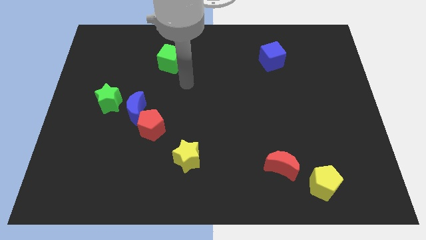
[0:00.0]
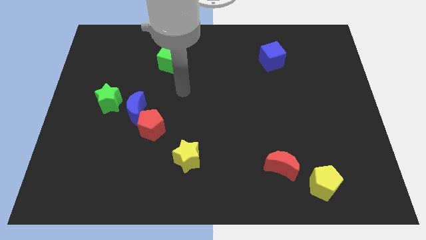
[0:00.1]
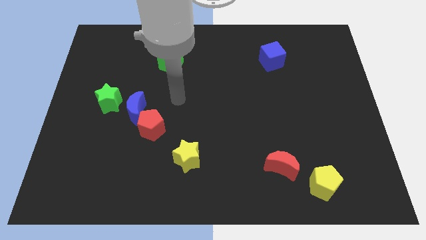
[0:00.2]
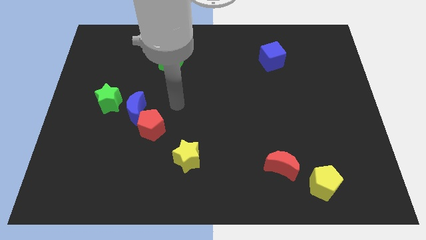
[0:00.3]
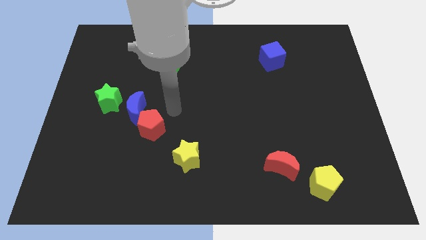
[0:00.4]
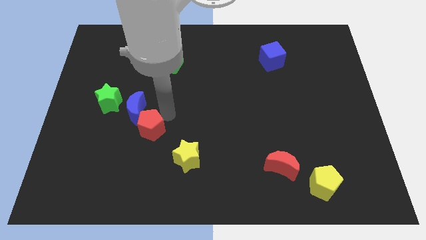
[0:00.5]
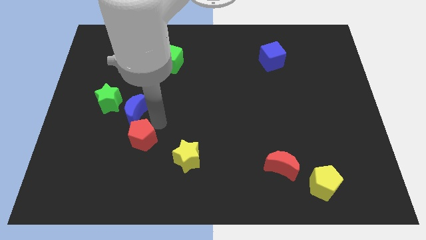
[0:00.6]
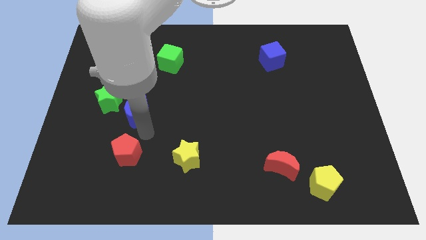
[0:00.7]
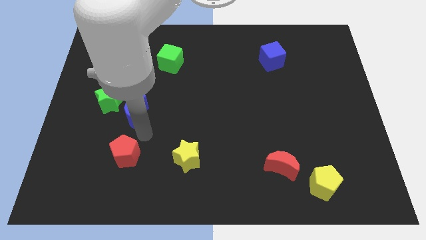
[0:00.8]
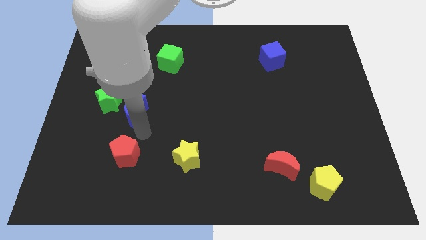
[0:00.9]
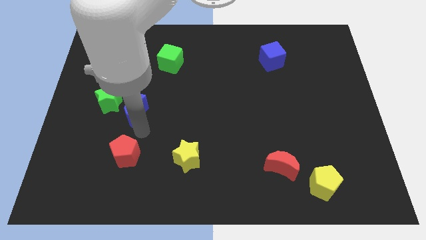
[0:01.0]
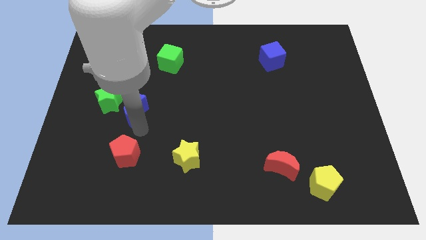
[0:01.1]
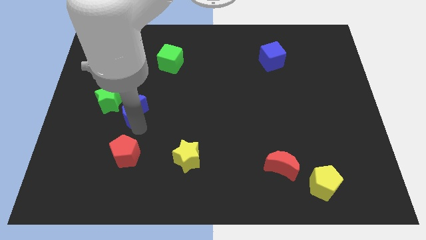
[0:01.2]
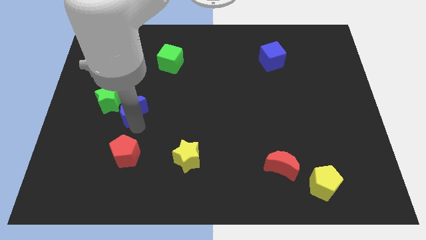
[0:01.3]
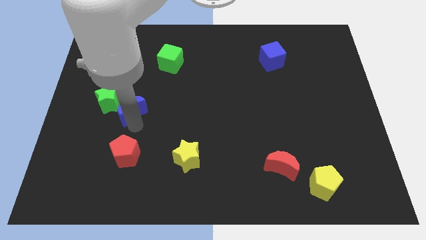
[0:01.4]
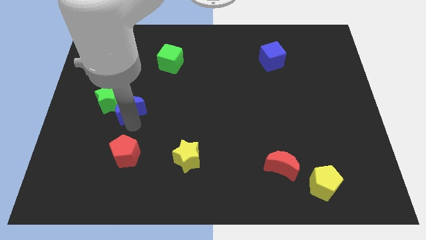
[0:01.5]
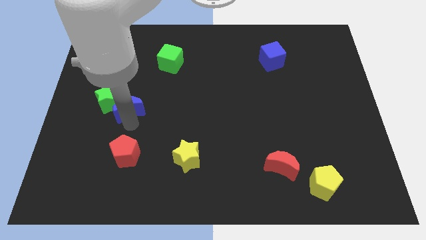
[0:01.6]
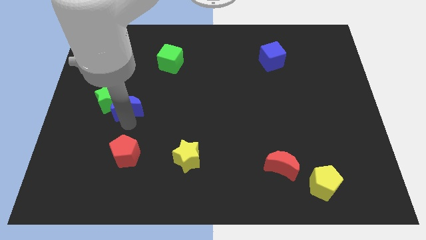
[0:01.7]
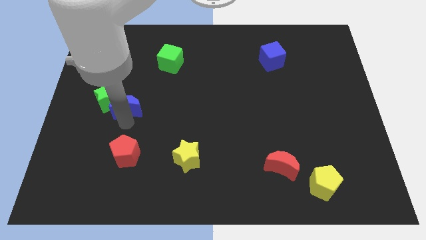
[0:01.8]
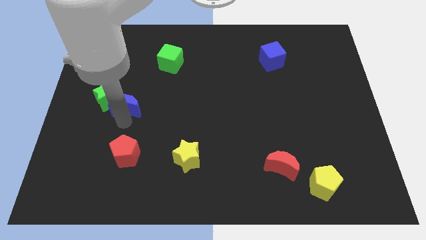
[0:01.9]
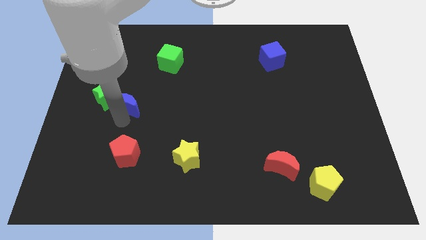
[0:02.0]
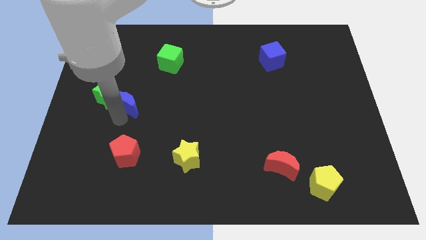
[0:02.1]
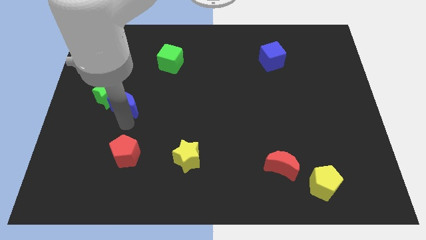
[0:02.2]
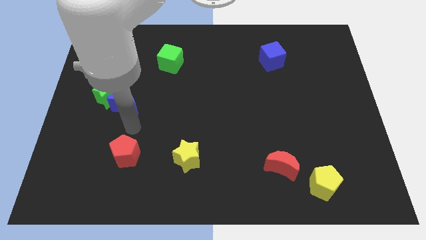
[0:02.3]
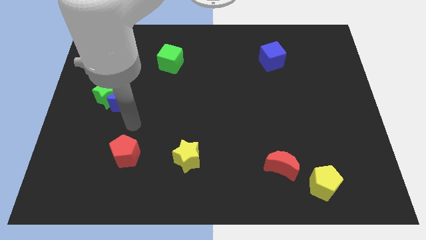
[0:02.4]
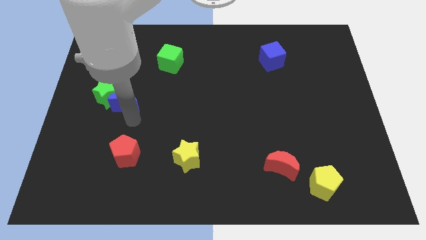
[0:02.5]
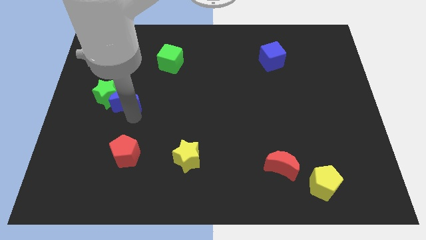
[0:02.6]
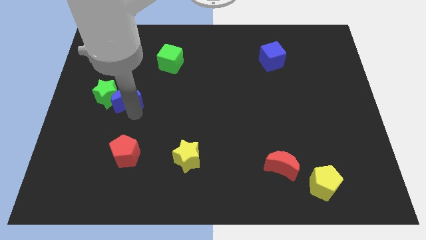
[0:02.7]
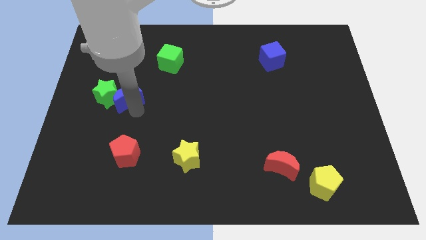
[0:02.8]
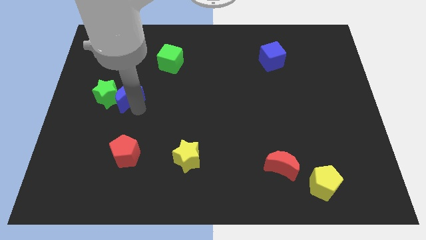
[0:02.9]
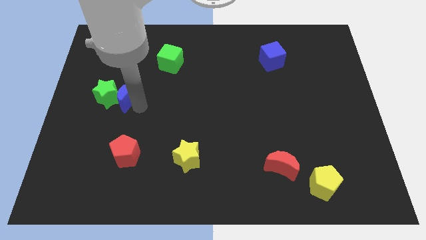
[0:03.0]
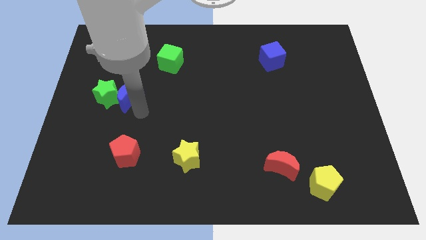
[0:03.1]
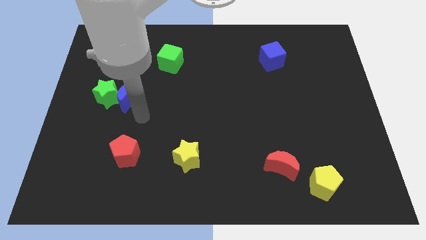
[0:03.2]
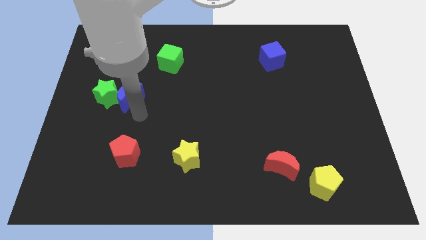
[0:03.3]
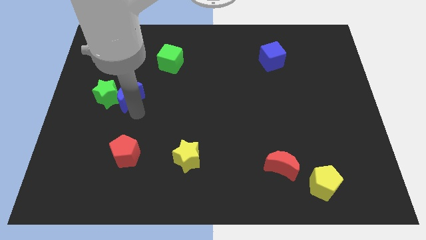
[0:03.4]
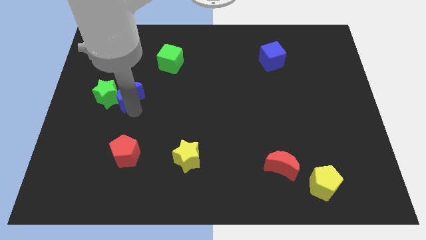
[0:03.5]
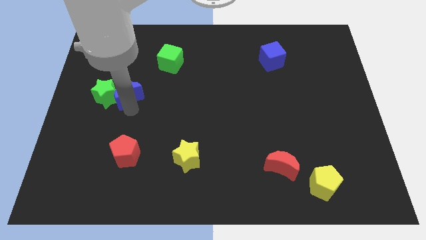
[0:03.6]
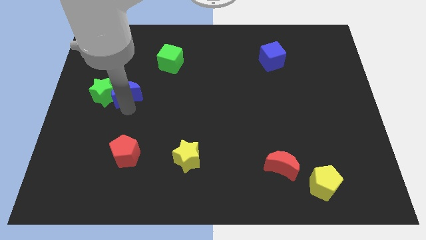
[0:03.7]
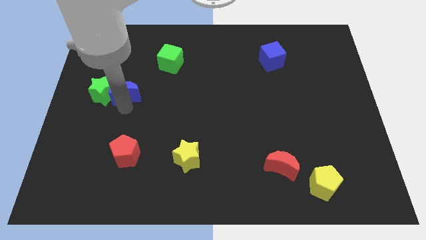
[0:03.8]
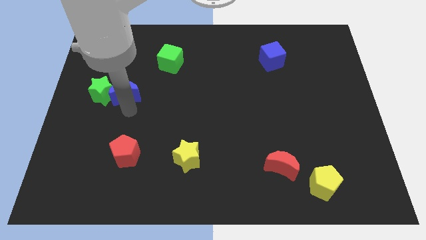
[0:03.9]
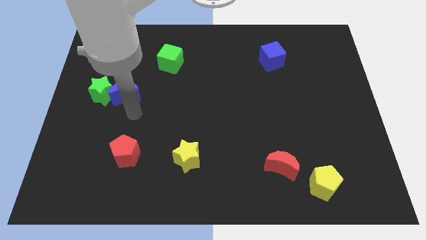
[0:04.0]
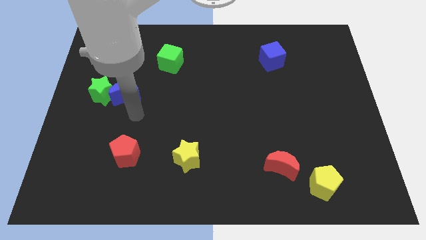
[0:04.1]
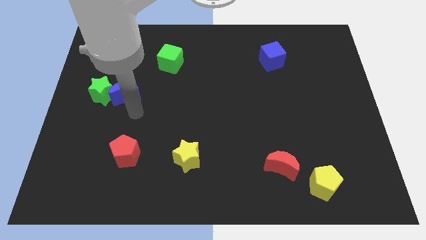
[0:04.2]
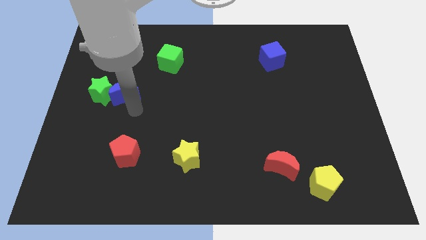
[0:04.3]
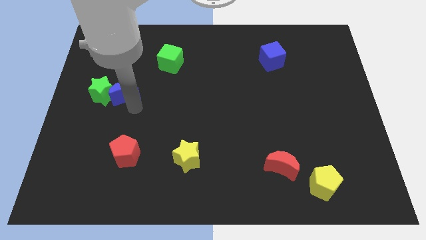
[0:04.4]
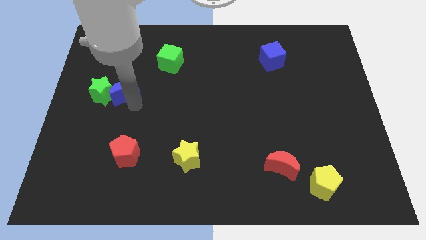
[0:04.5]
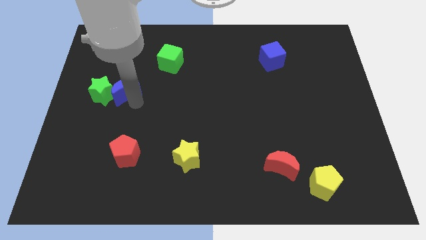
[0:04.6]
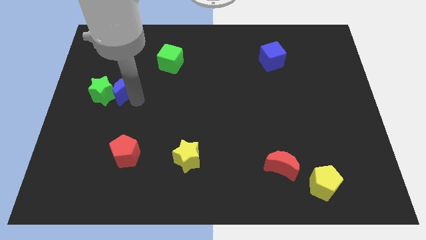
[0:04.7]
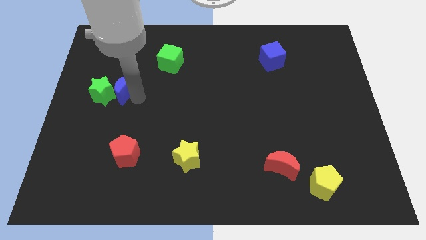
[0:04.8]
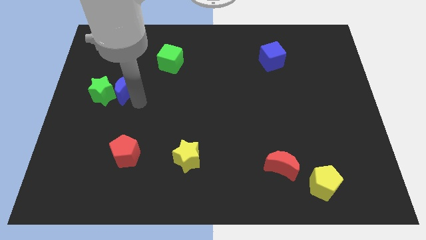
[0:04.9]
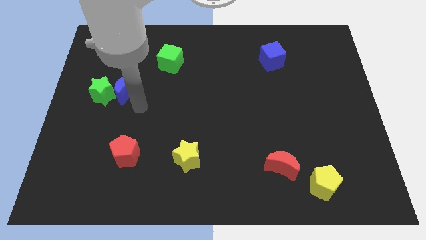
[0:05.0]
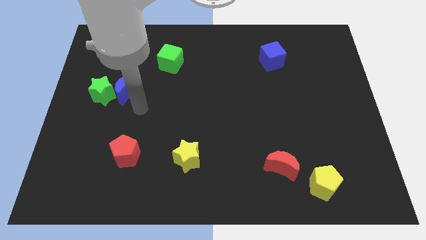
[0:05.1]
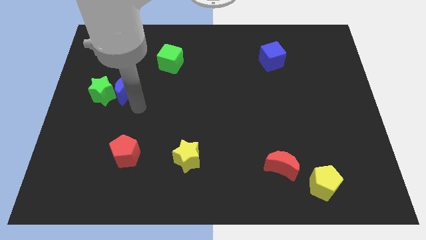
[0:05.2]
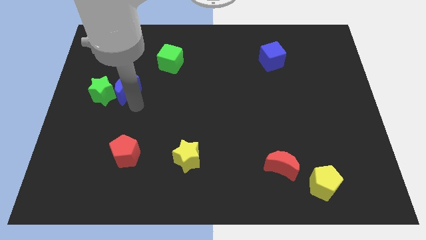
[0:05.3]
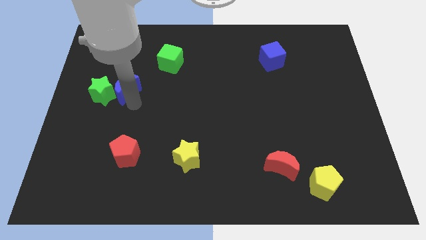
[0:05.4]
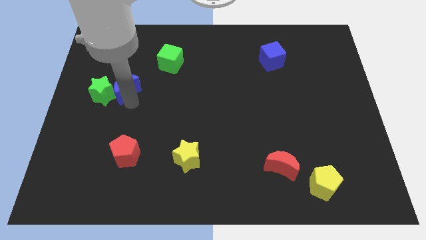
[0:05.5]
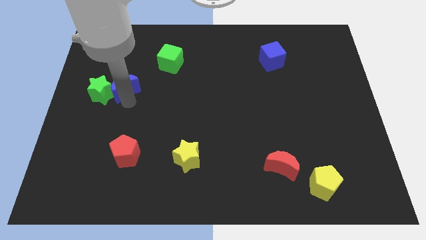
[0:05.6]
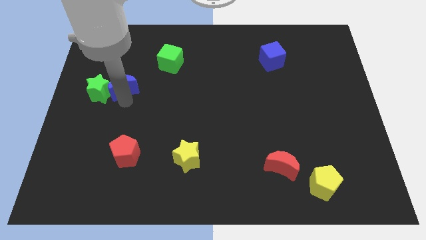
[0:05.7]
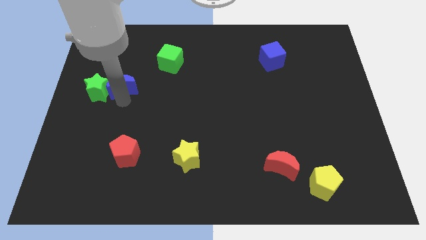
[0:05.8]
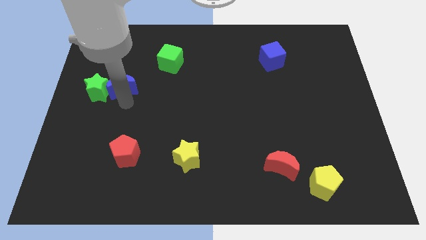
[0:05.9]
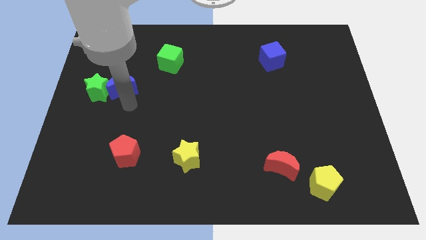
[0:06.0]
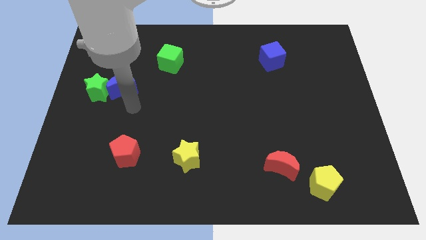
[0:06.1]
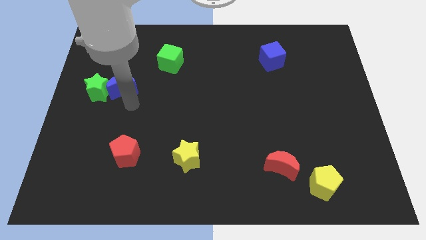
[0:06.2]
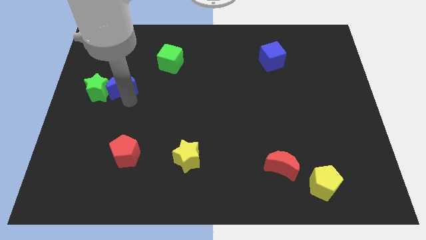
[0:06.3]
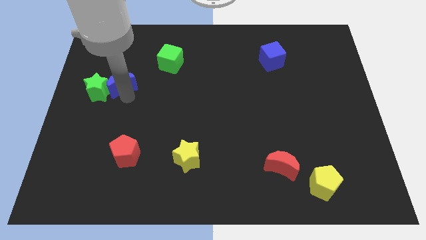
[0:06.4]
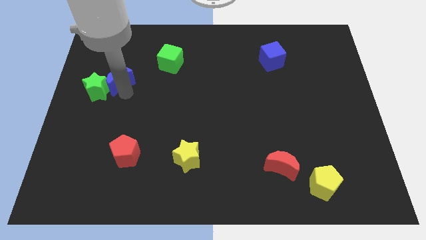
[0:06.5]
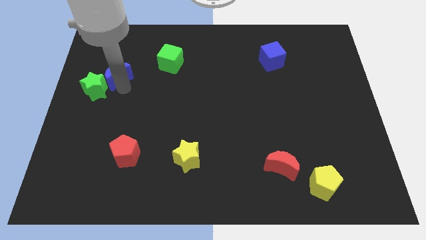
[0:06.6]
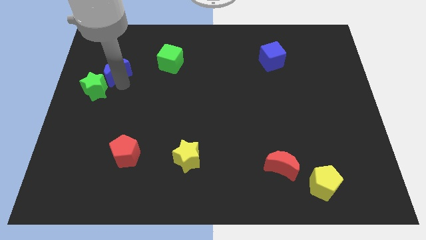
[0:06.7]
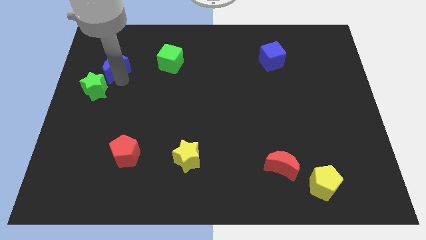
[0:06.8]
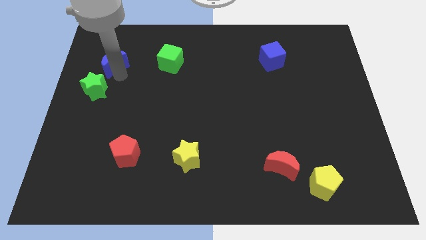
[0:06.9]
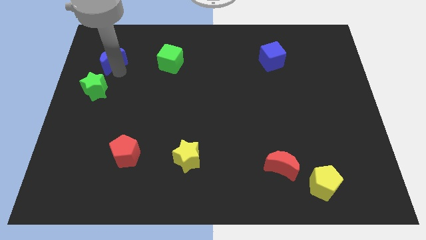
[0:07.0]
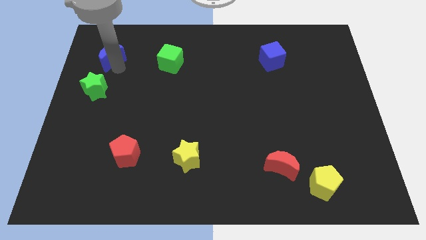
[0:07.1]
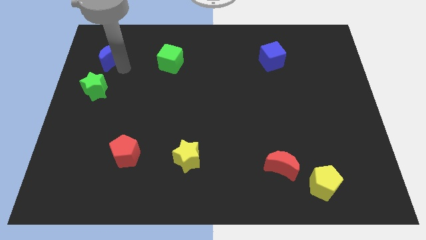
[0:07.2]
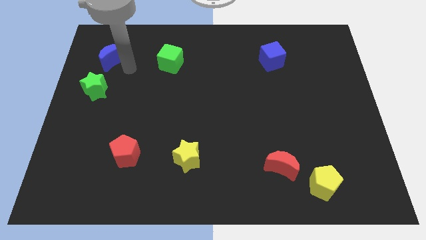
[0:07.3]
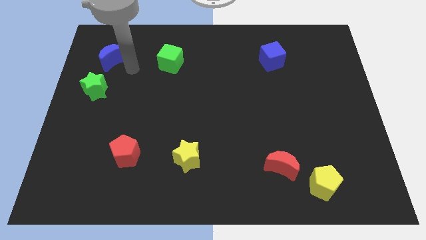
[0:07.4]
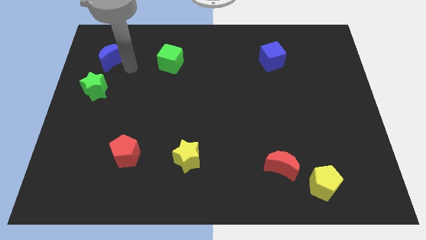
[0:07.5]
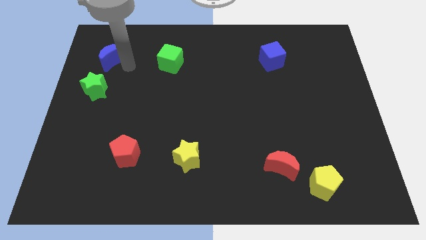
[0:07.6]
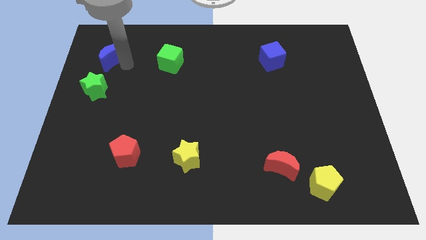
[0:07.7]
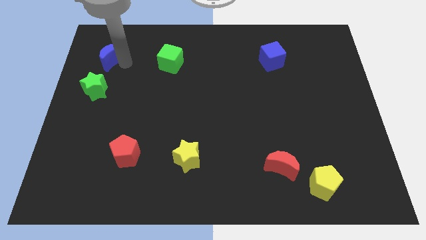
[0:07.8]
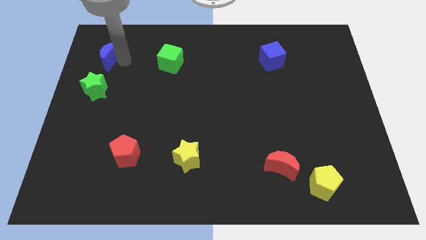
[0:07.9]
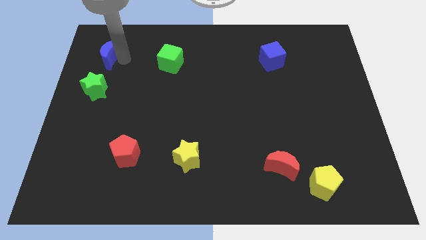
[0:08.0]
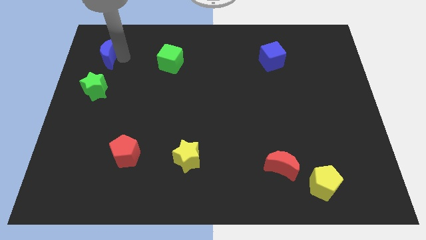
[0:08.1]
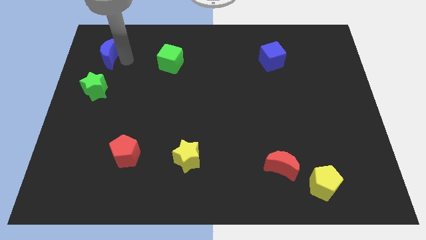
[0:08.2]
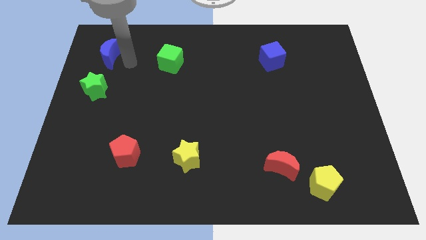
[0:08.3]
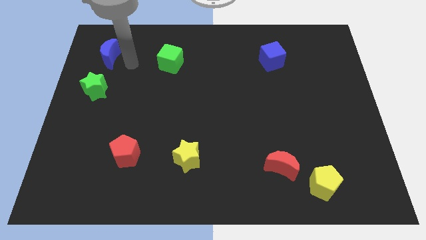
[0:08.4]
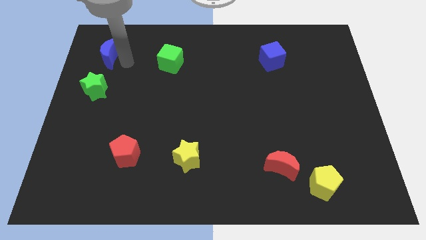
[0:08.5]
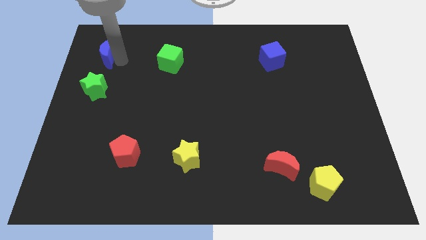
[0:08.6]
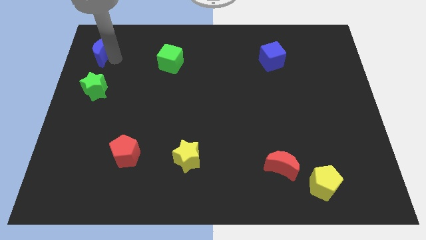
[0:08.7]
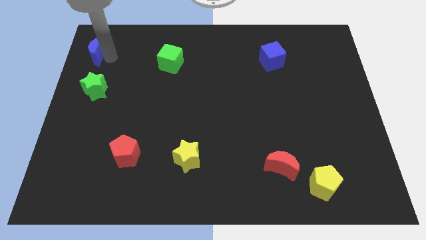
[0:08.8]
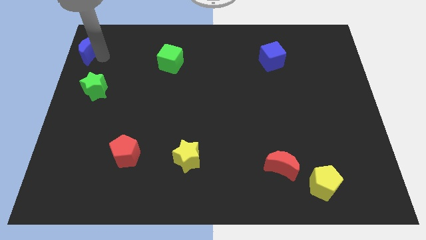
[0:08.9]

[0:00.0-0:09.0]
put the blue moon to the upper left corner
